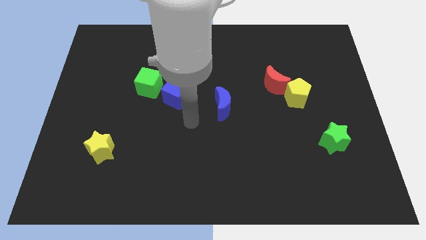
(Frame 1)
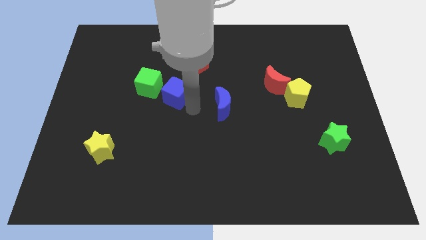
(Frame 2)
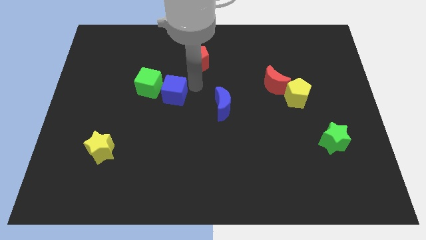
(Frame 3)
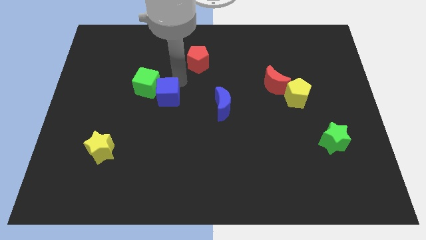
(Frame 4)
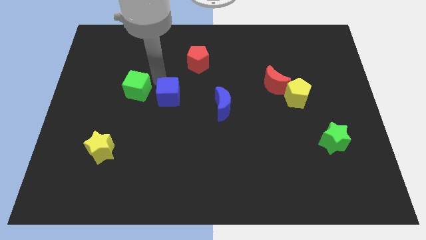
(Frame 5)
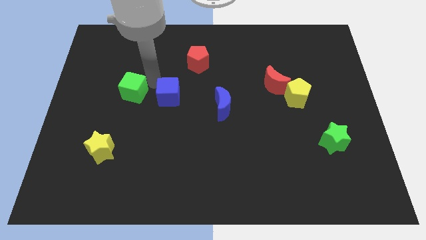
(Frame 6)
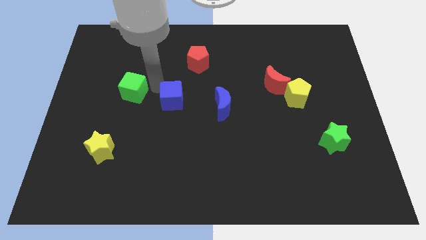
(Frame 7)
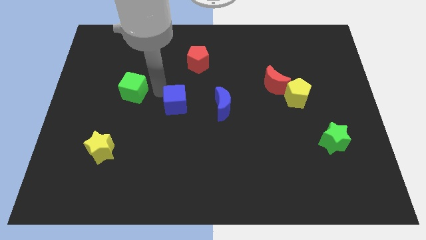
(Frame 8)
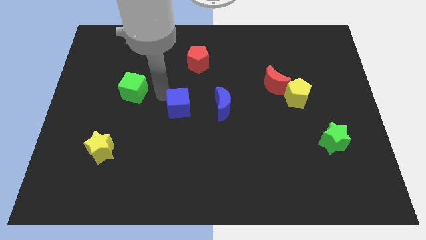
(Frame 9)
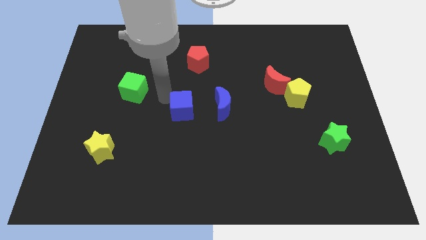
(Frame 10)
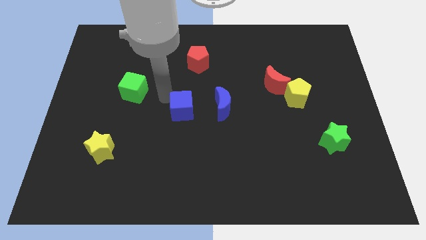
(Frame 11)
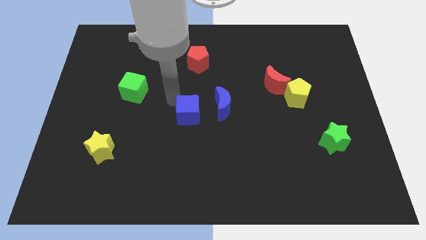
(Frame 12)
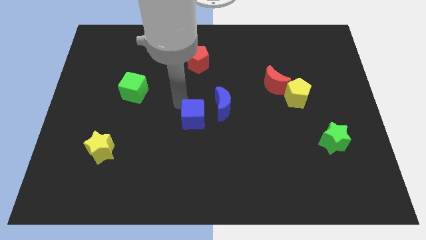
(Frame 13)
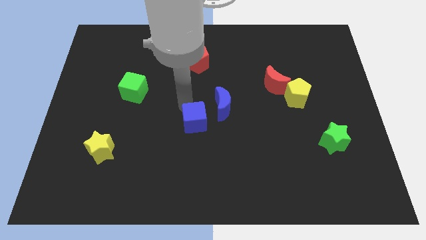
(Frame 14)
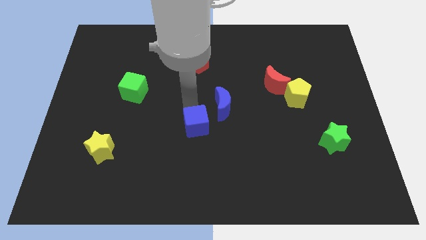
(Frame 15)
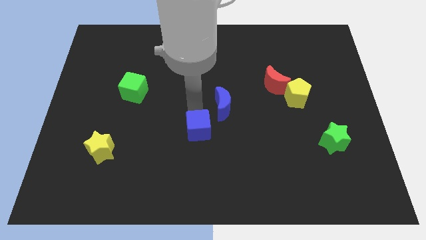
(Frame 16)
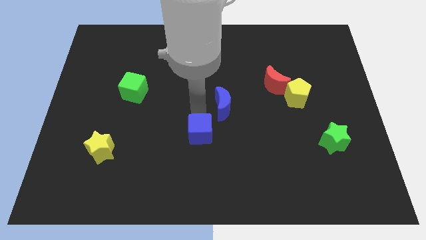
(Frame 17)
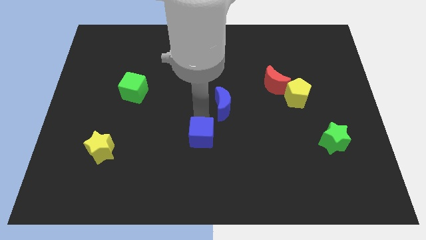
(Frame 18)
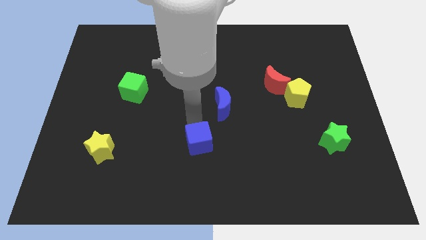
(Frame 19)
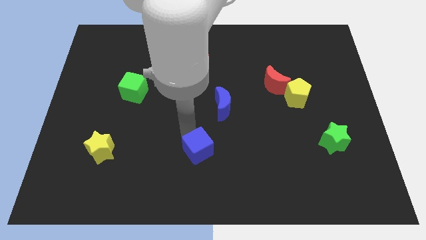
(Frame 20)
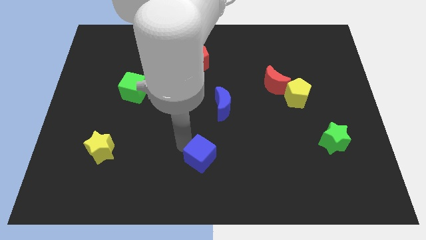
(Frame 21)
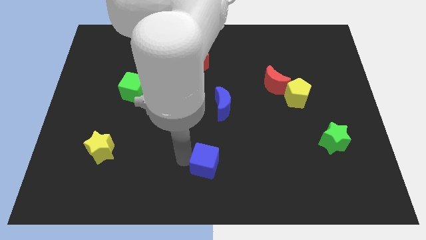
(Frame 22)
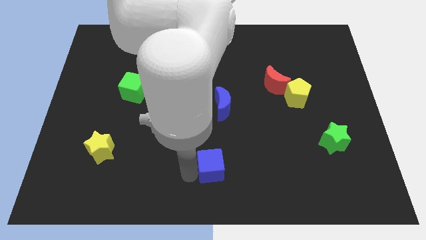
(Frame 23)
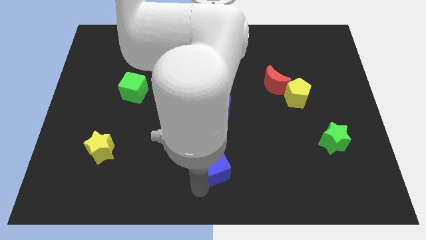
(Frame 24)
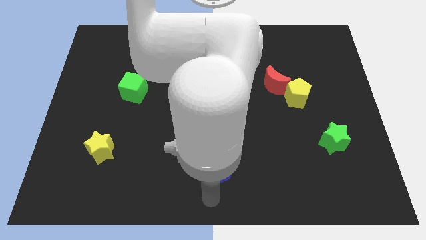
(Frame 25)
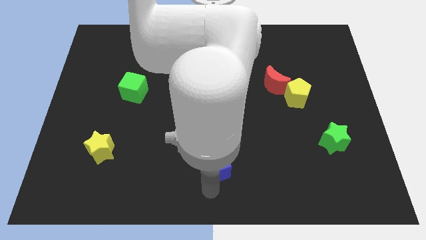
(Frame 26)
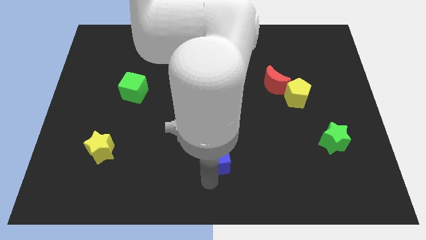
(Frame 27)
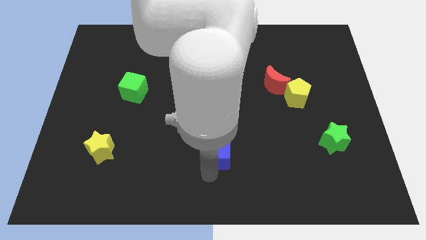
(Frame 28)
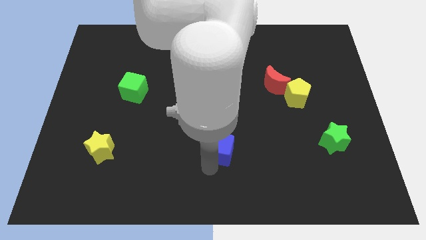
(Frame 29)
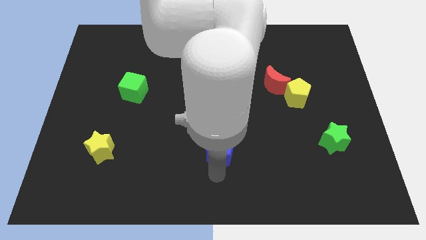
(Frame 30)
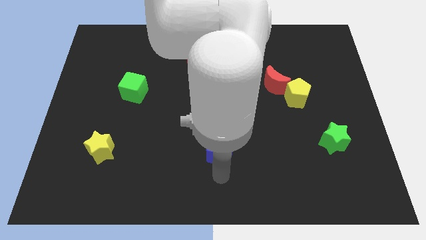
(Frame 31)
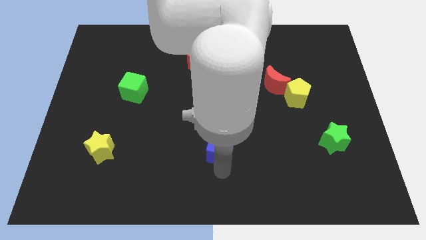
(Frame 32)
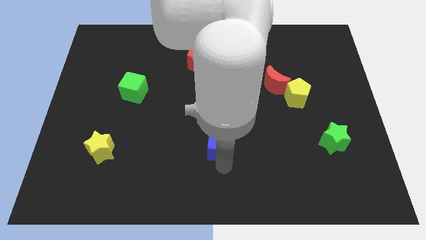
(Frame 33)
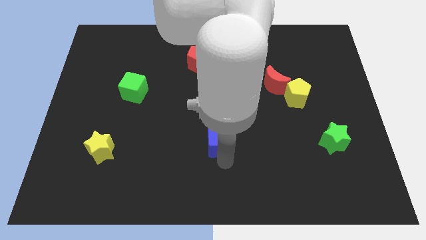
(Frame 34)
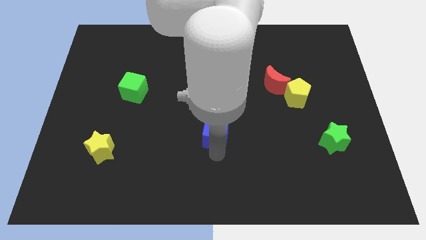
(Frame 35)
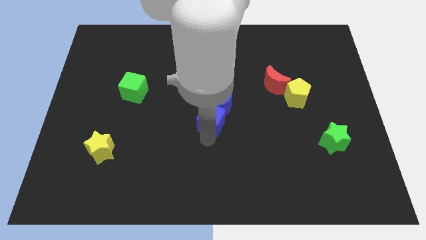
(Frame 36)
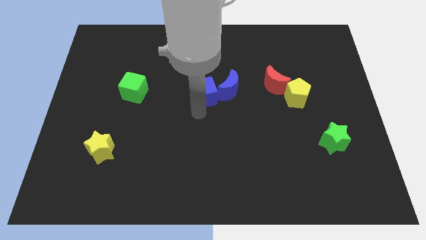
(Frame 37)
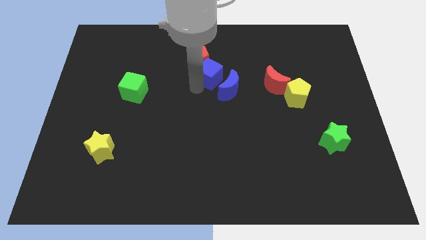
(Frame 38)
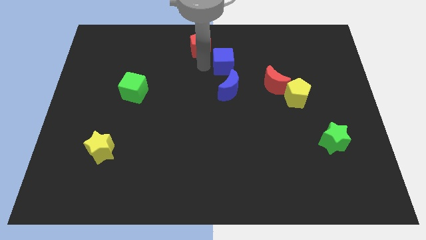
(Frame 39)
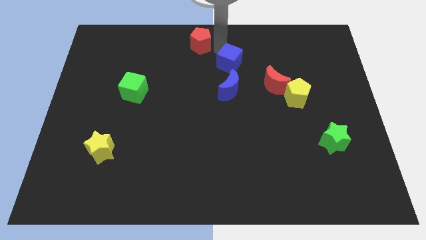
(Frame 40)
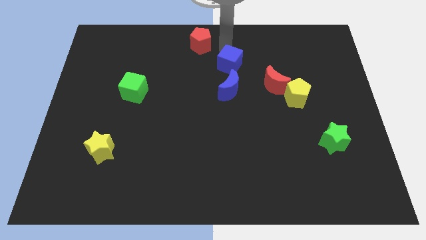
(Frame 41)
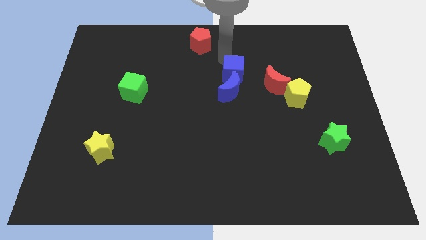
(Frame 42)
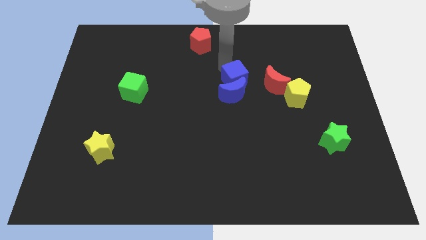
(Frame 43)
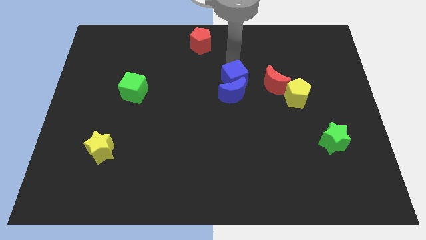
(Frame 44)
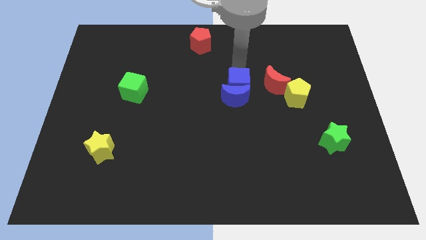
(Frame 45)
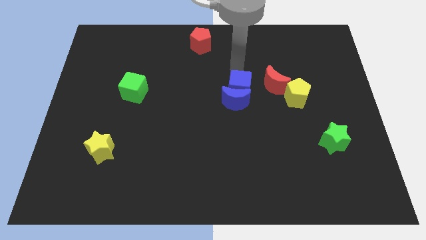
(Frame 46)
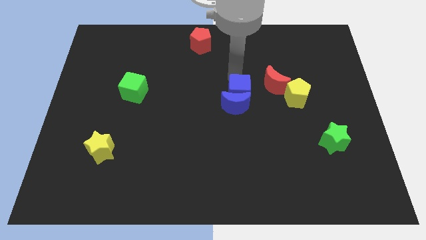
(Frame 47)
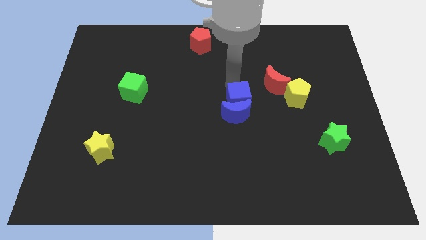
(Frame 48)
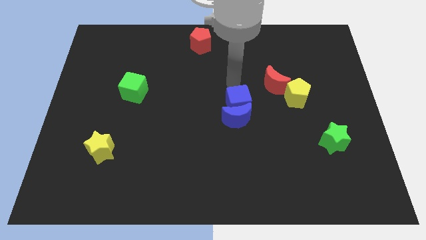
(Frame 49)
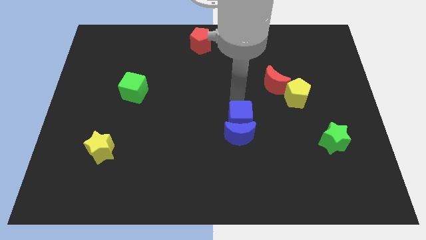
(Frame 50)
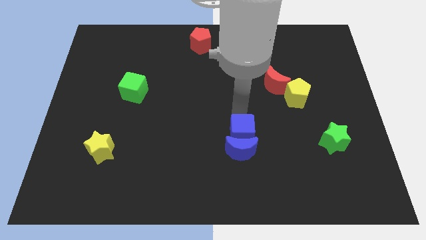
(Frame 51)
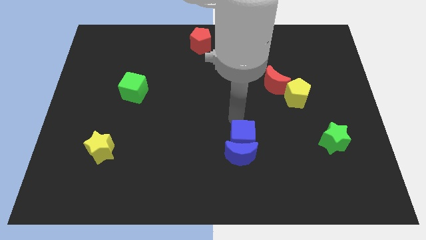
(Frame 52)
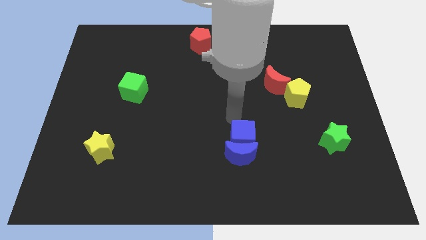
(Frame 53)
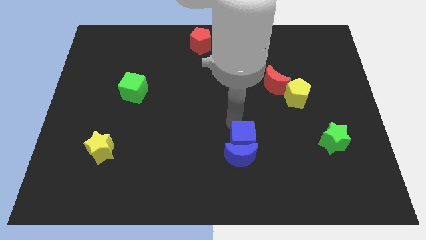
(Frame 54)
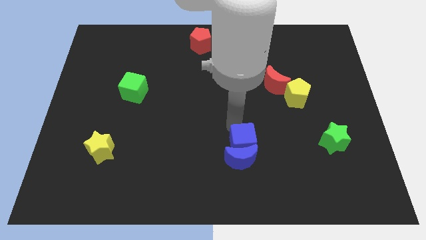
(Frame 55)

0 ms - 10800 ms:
push the blue cube downwards and then right

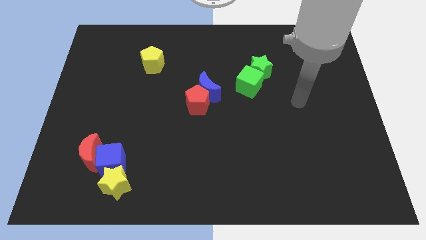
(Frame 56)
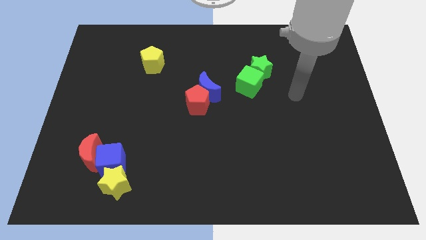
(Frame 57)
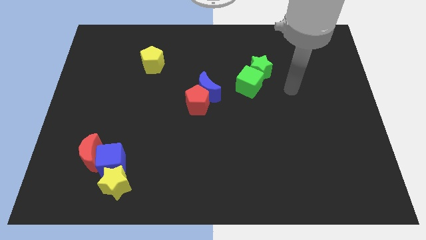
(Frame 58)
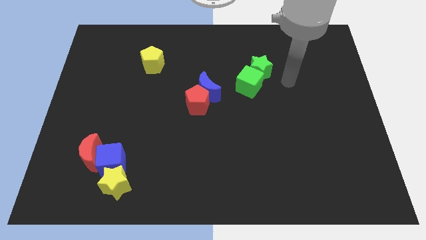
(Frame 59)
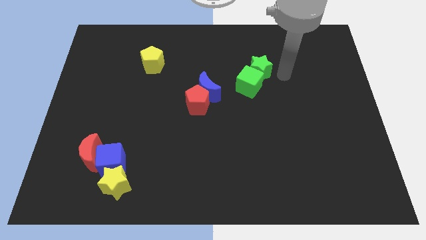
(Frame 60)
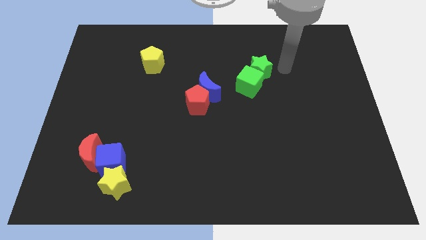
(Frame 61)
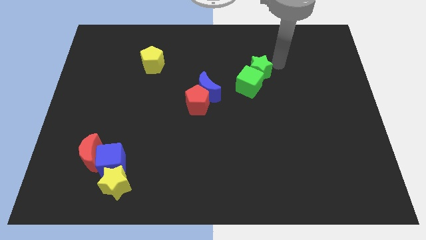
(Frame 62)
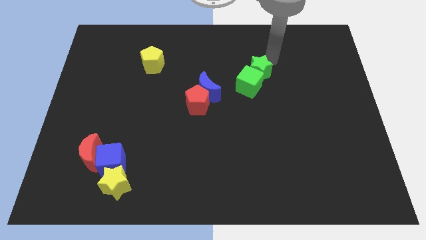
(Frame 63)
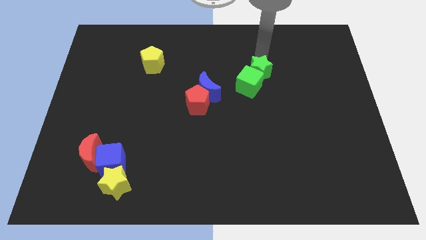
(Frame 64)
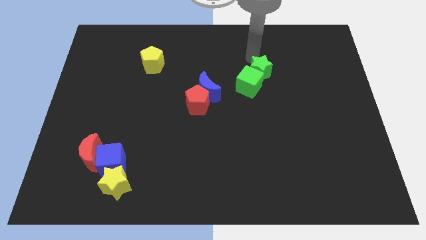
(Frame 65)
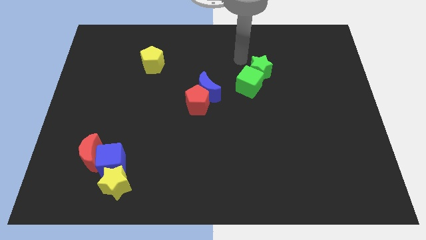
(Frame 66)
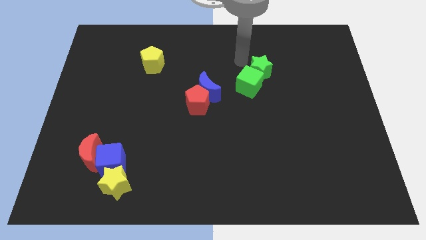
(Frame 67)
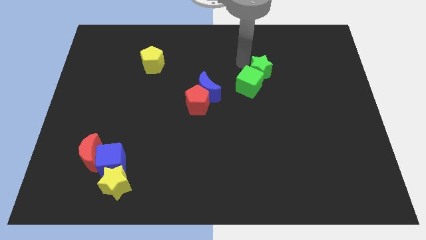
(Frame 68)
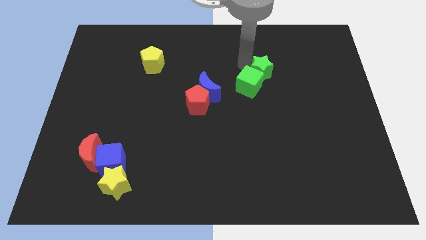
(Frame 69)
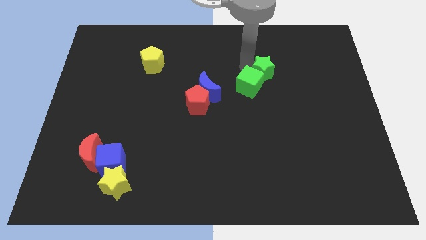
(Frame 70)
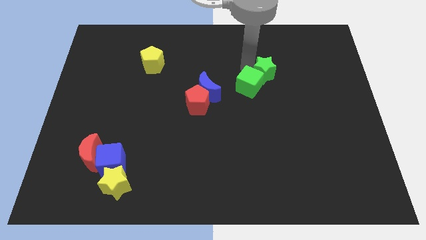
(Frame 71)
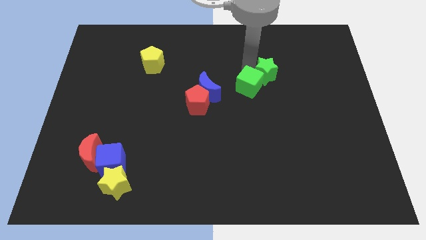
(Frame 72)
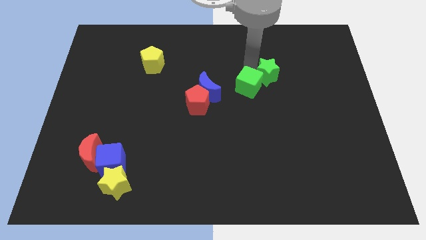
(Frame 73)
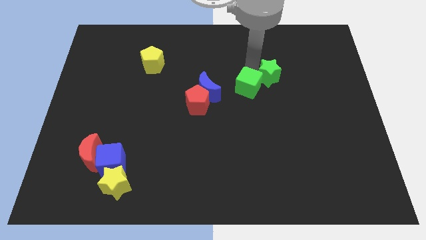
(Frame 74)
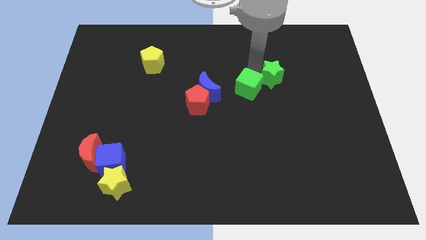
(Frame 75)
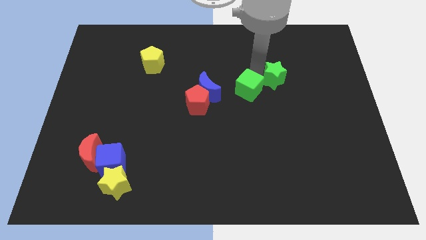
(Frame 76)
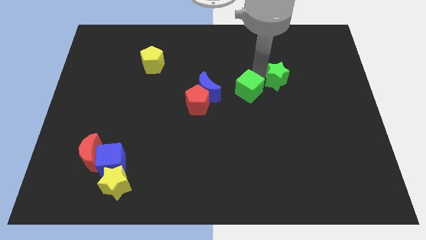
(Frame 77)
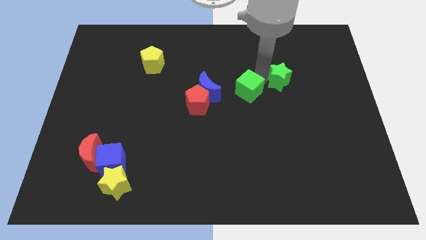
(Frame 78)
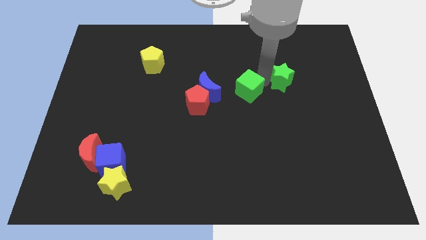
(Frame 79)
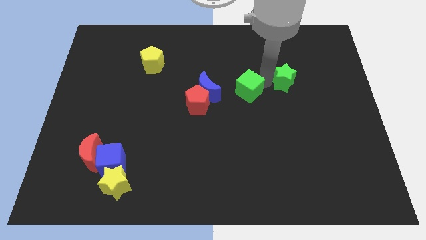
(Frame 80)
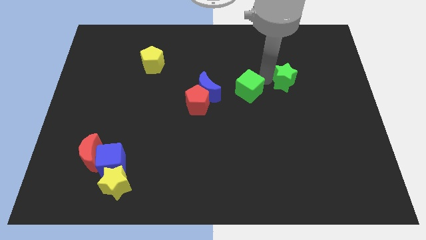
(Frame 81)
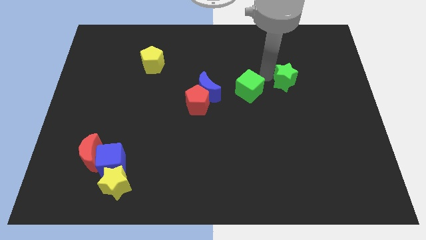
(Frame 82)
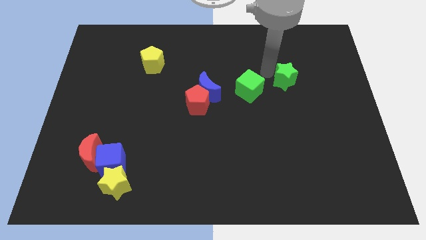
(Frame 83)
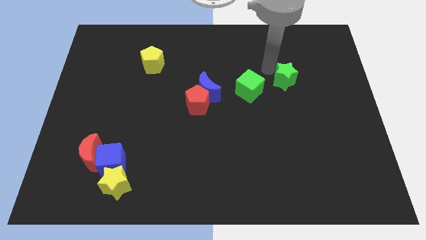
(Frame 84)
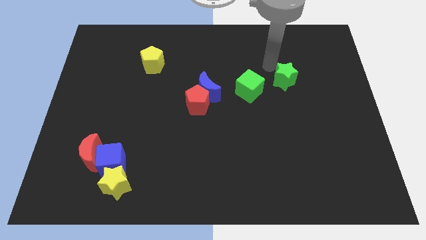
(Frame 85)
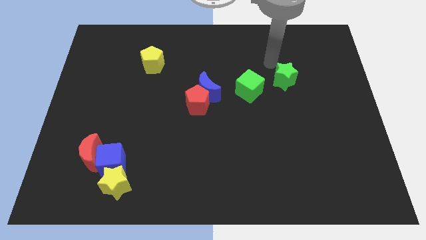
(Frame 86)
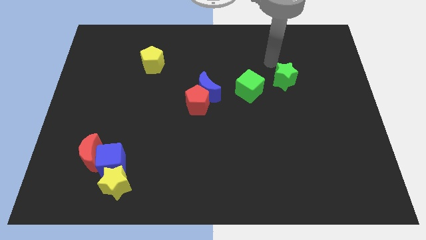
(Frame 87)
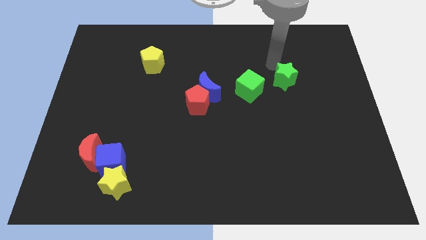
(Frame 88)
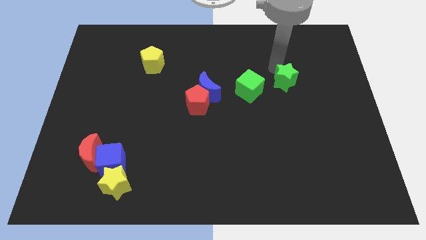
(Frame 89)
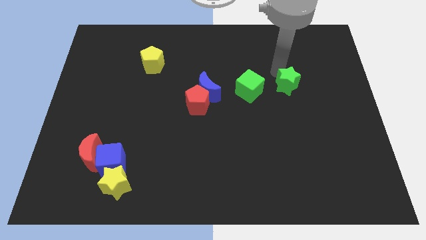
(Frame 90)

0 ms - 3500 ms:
slightly move the green star diagonally down and to the right
